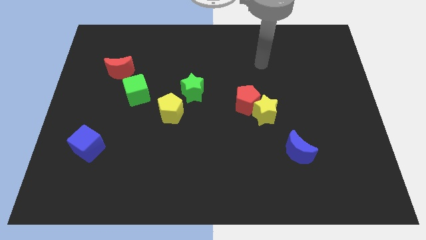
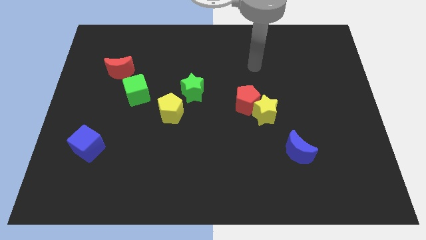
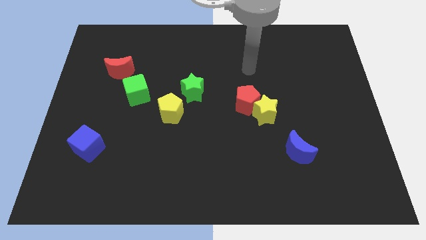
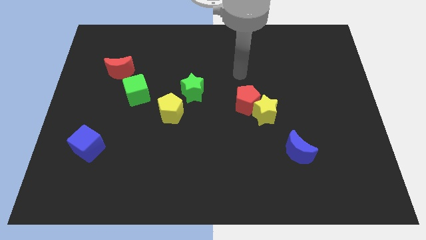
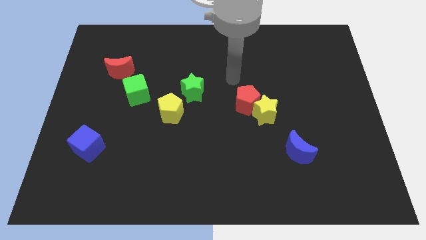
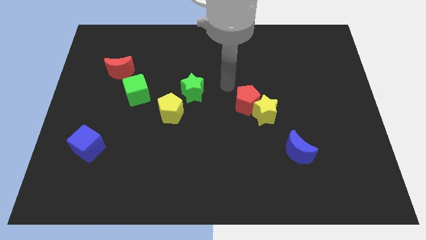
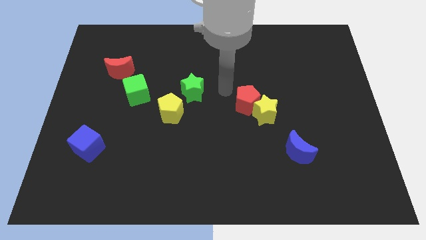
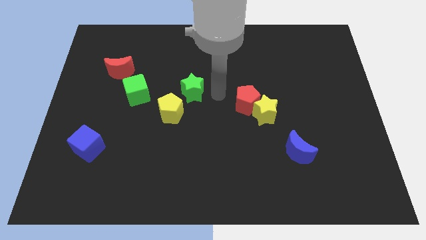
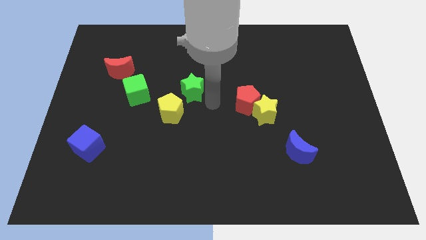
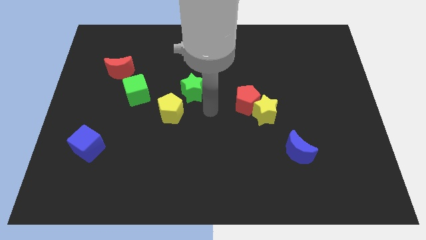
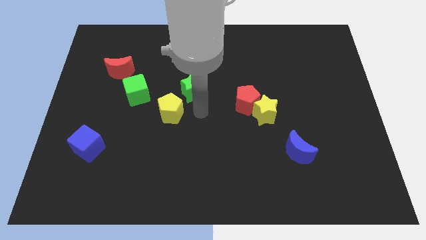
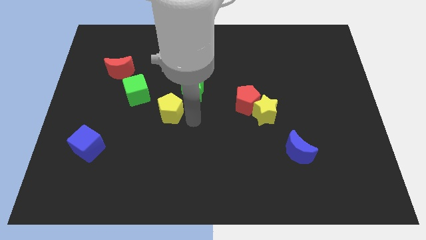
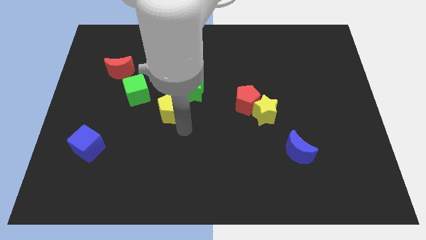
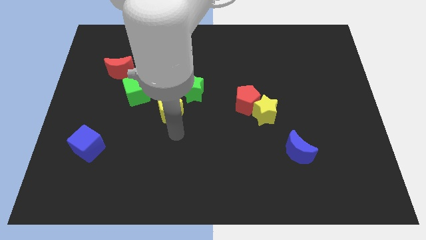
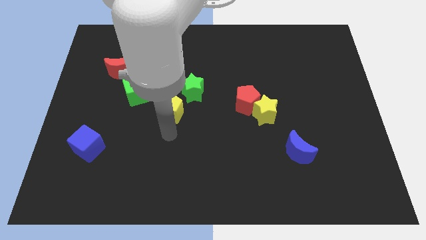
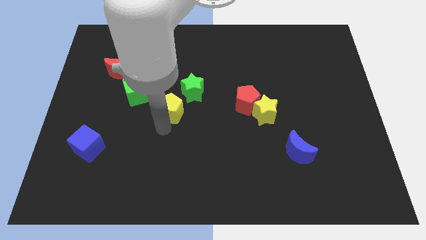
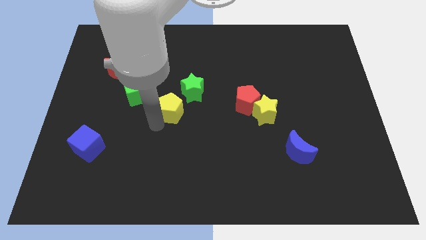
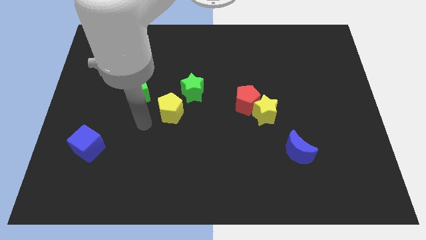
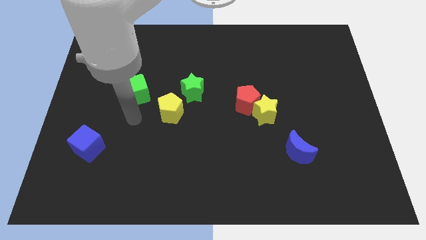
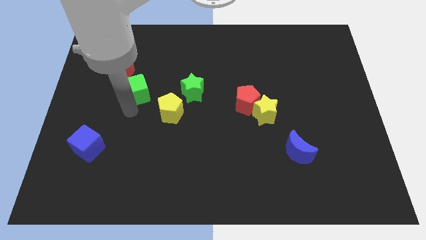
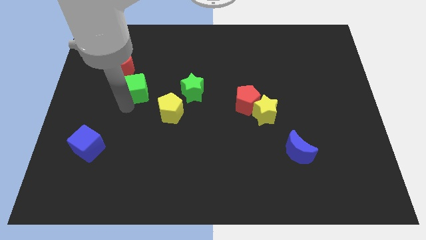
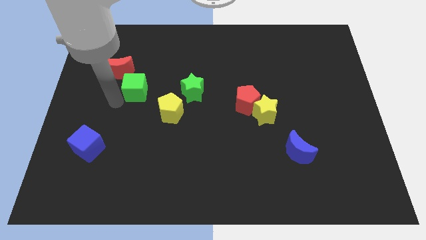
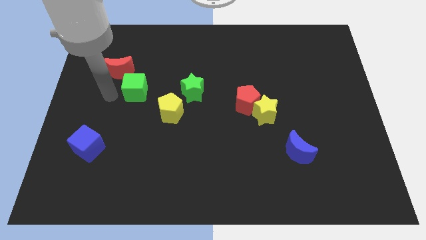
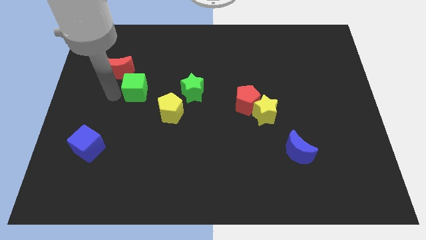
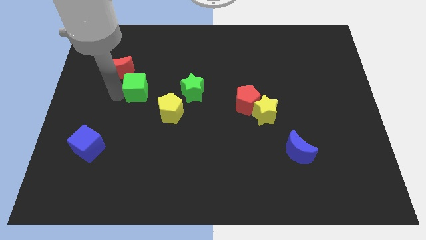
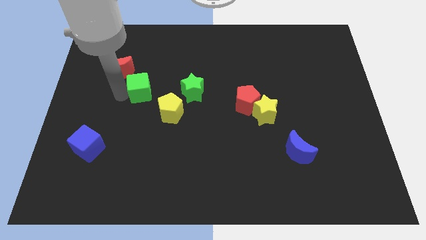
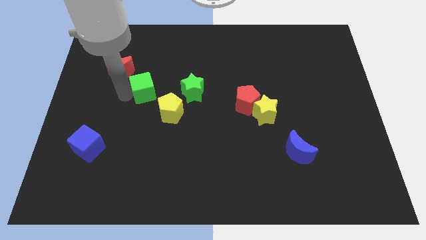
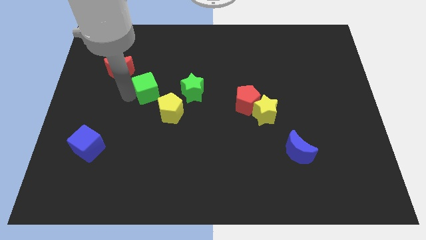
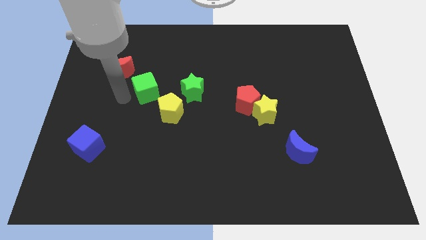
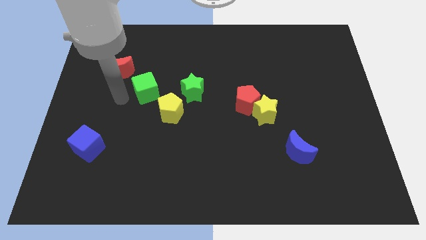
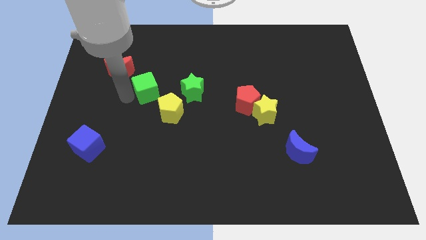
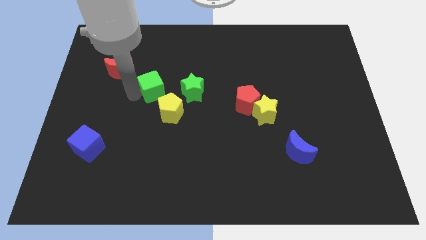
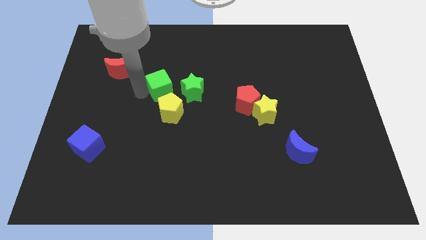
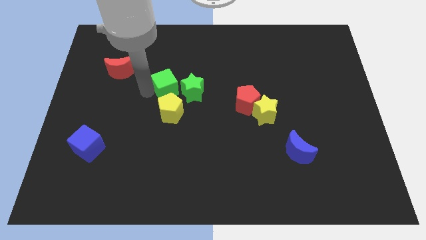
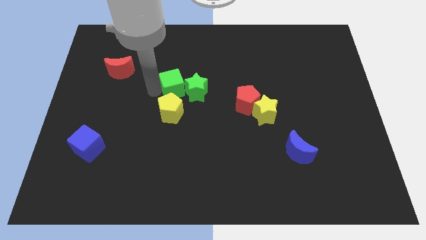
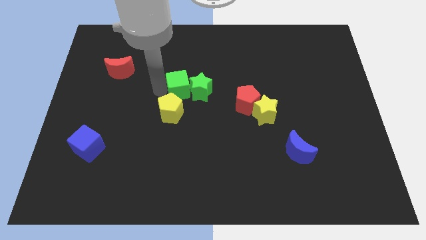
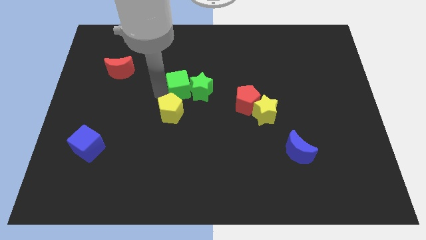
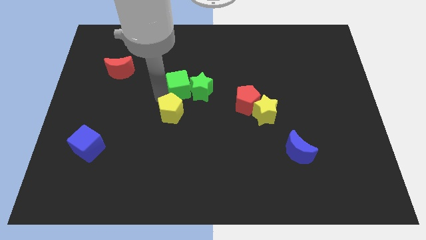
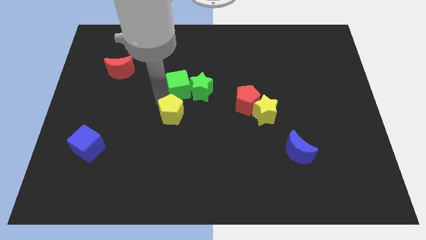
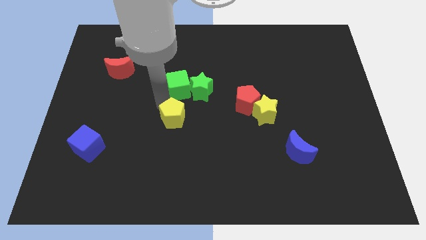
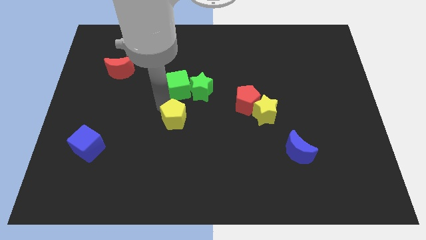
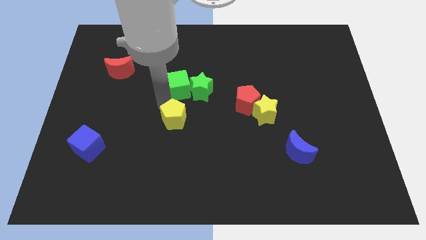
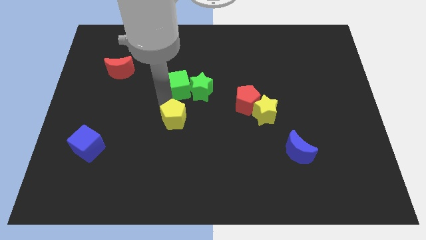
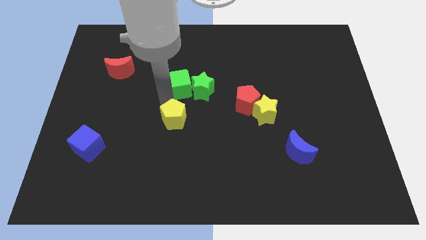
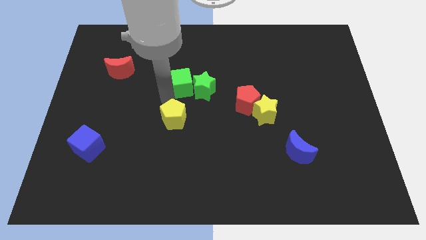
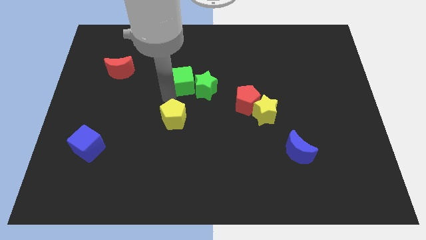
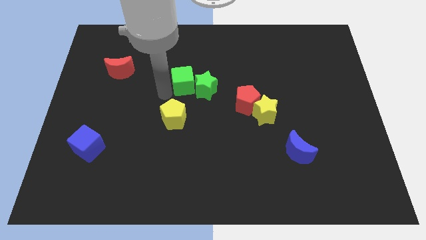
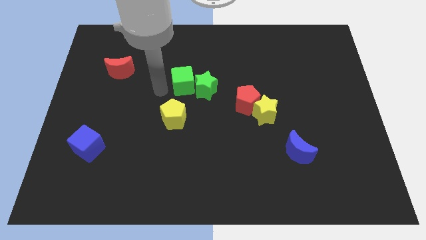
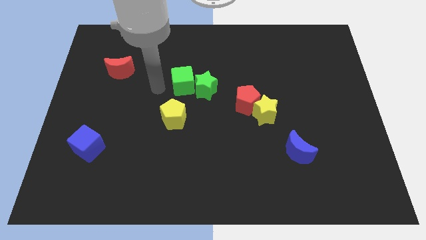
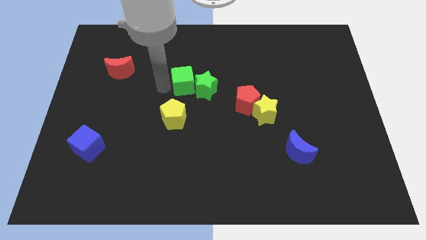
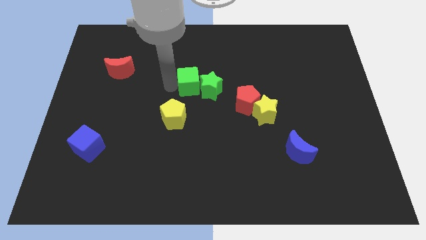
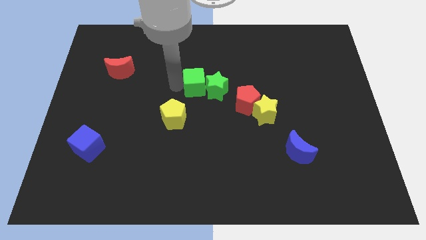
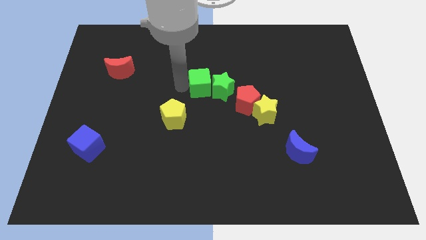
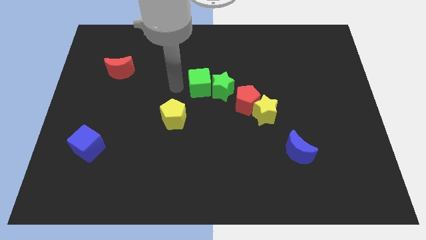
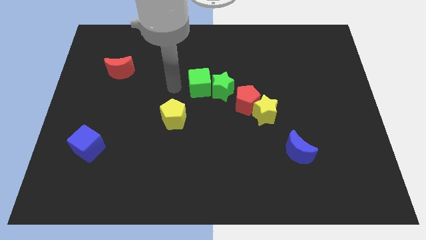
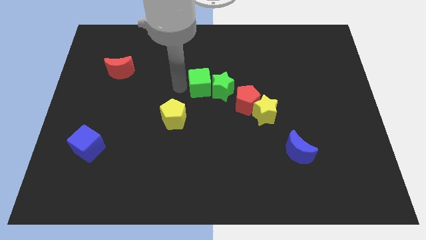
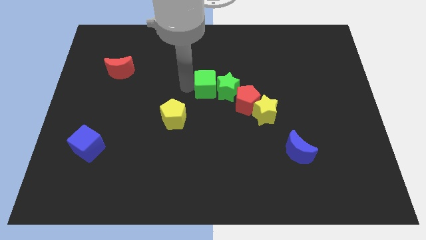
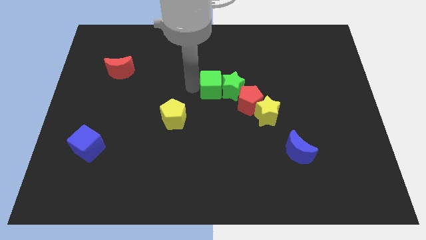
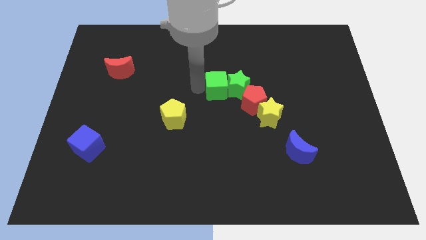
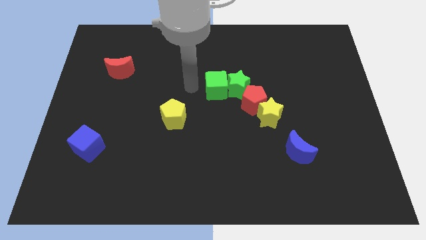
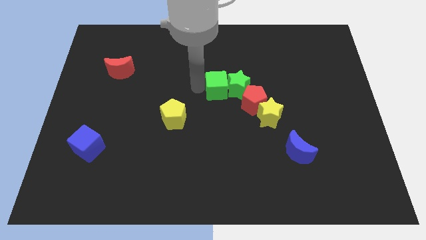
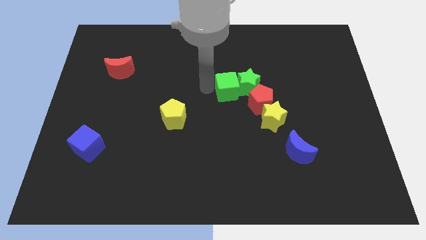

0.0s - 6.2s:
slide the green cube right

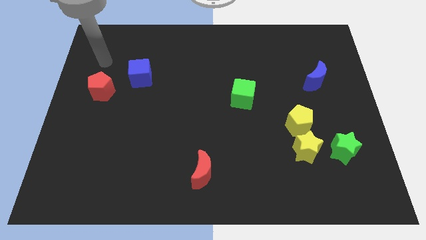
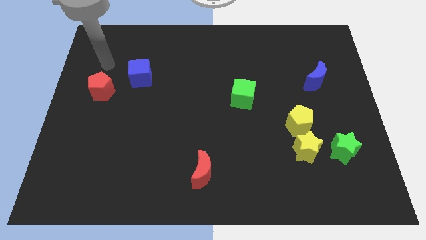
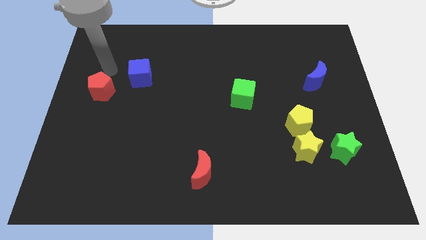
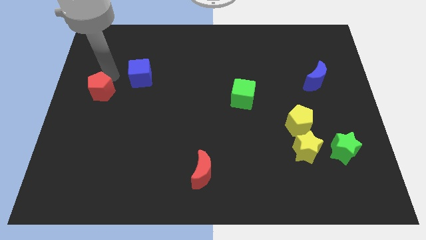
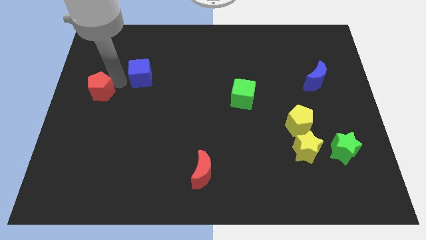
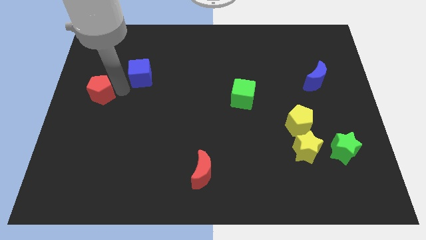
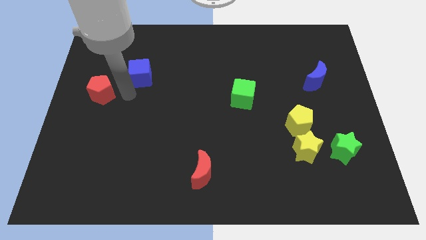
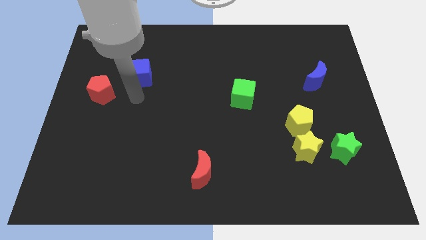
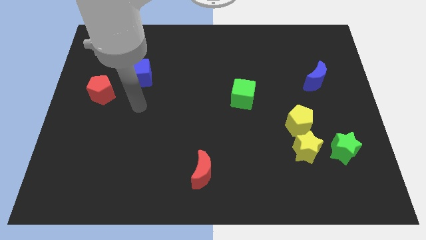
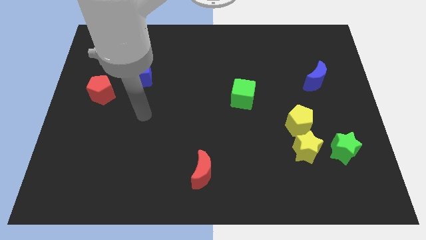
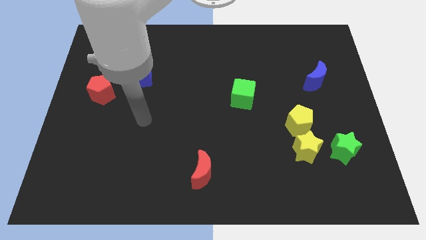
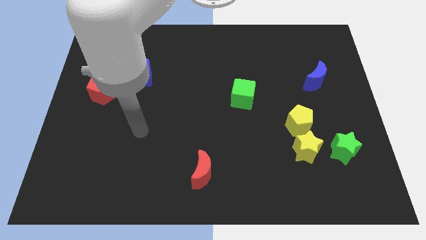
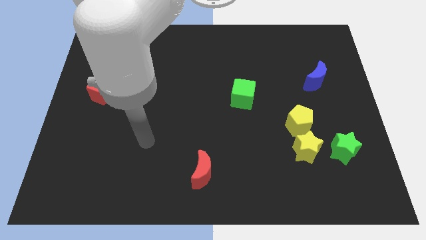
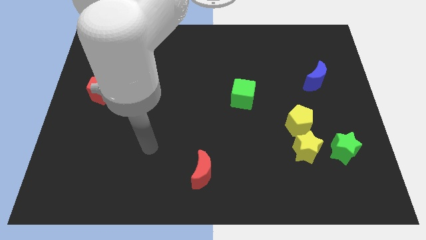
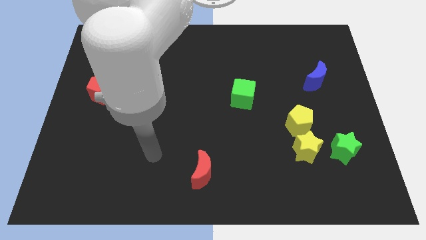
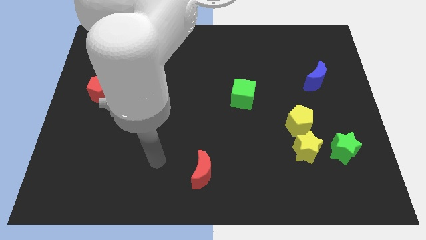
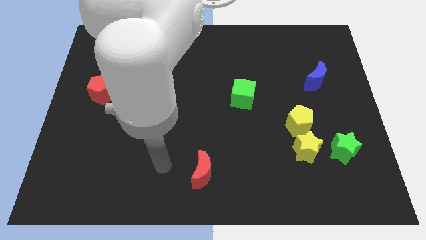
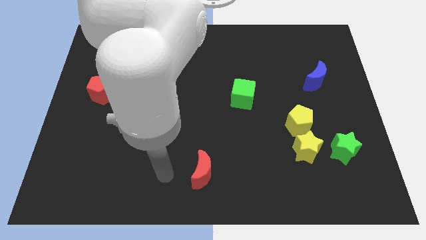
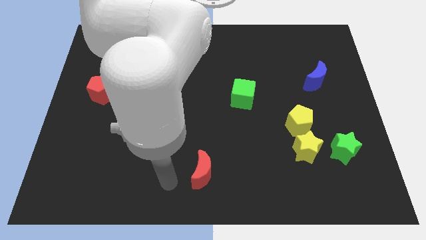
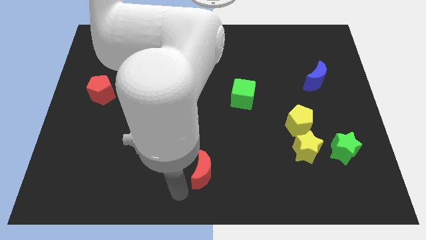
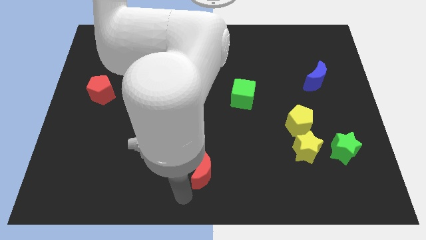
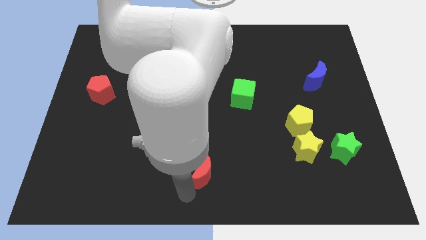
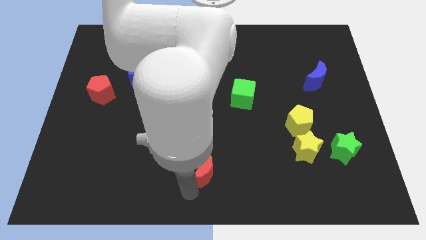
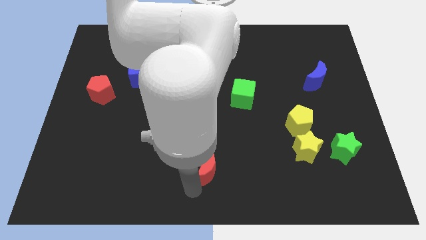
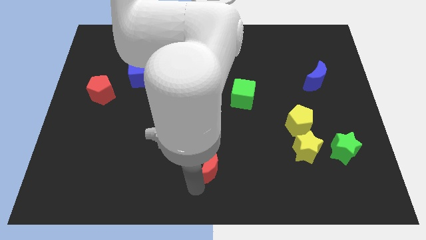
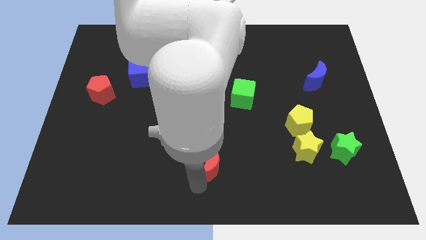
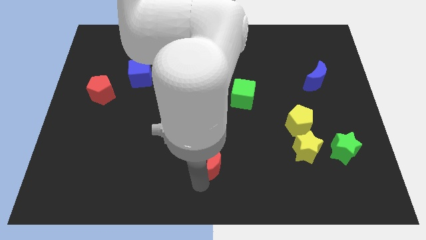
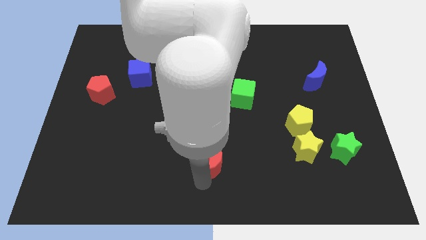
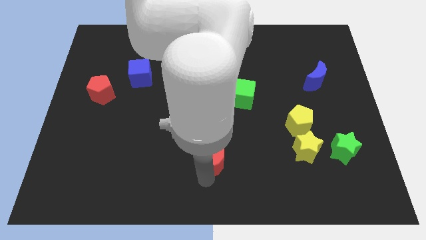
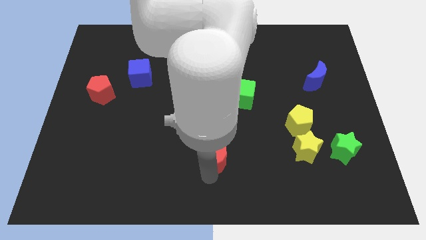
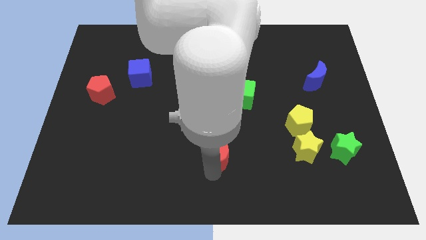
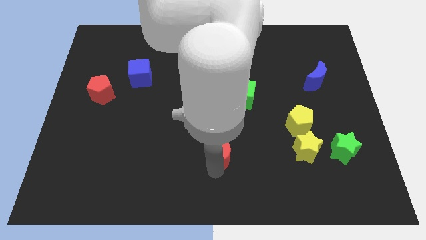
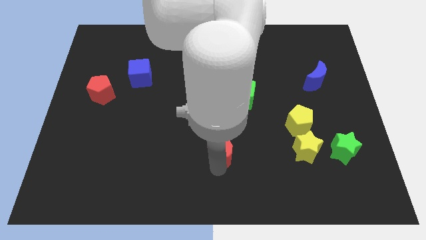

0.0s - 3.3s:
move the red moon up and then to the right somewhat
